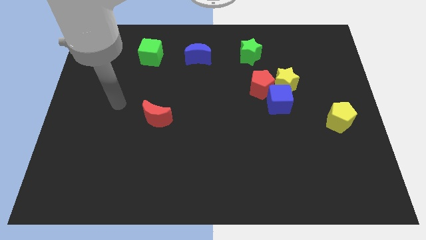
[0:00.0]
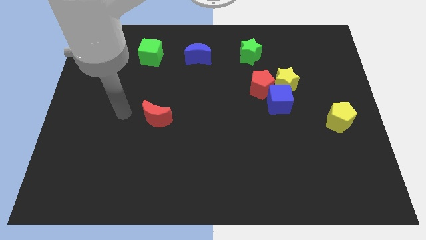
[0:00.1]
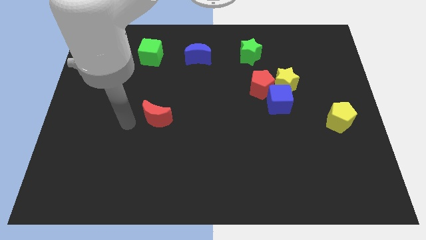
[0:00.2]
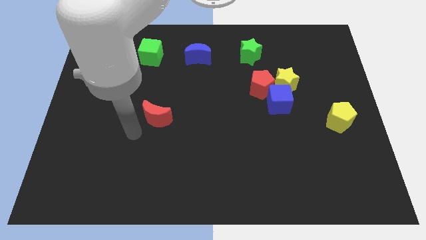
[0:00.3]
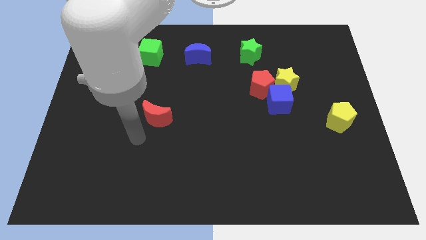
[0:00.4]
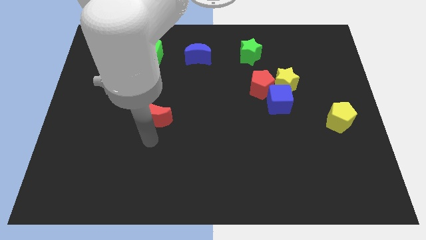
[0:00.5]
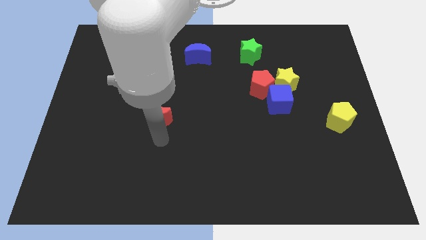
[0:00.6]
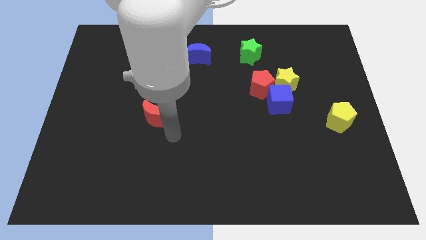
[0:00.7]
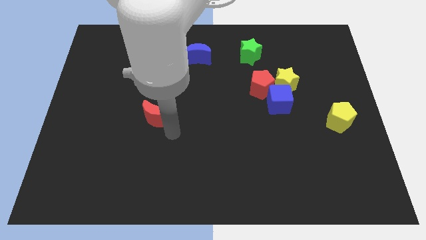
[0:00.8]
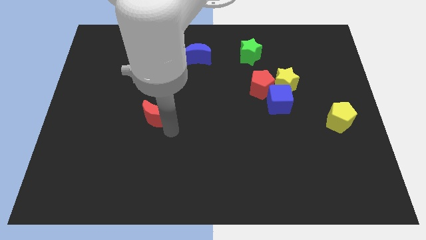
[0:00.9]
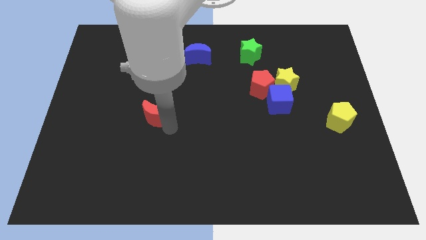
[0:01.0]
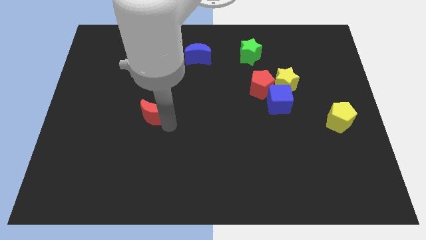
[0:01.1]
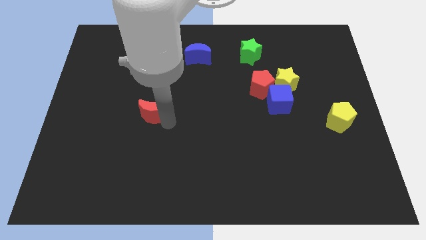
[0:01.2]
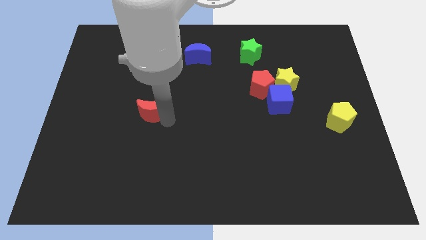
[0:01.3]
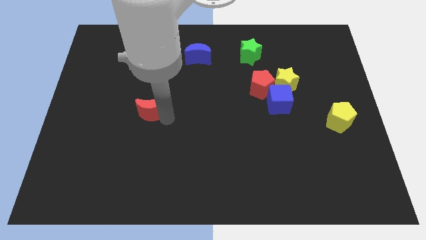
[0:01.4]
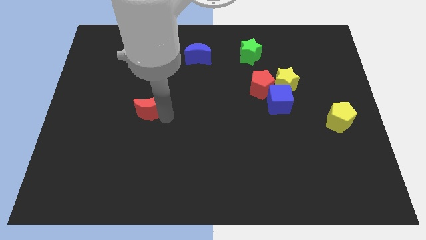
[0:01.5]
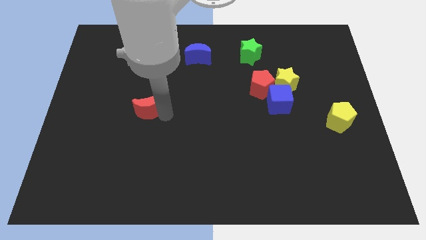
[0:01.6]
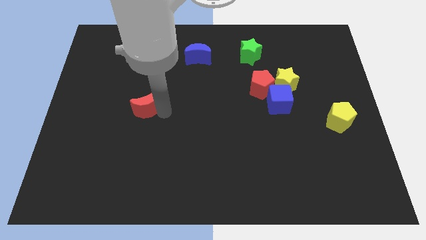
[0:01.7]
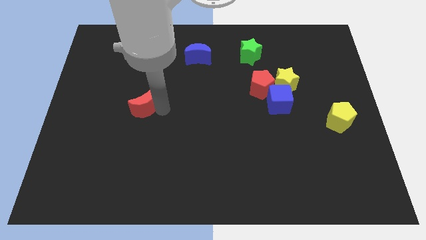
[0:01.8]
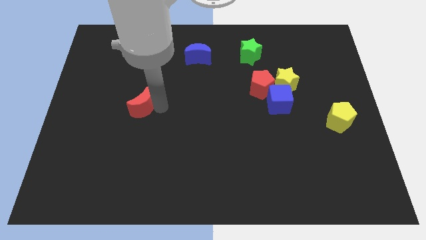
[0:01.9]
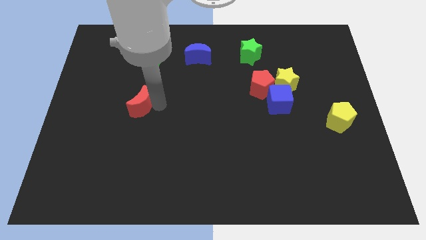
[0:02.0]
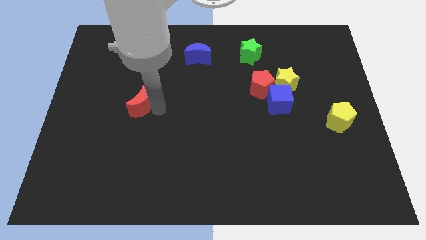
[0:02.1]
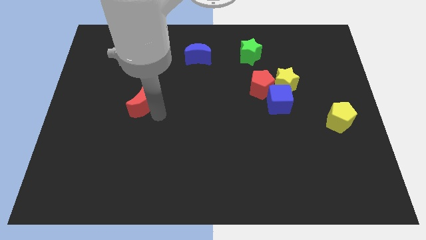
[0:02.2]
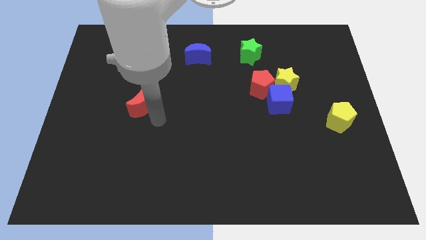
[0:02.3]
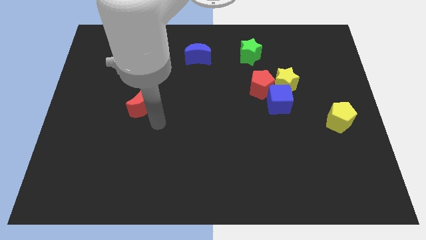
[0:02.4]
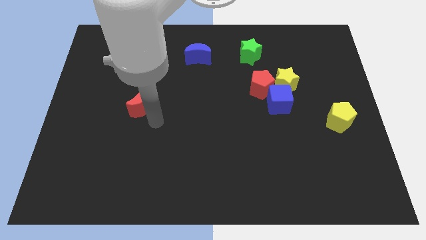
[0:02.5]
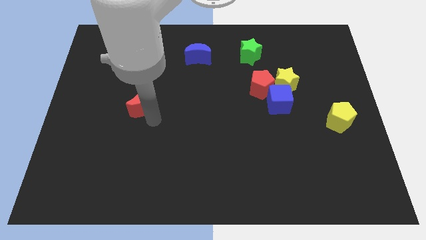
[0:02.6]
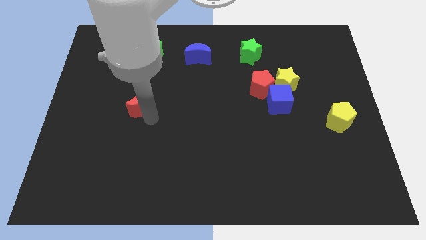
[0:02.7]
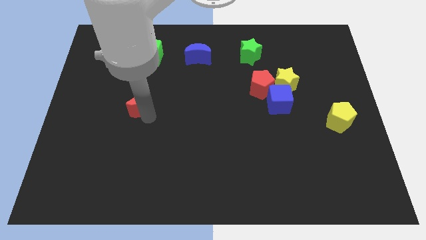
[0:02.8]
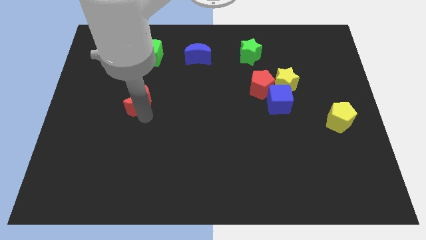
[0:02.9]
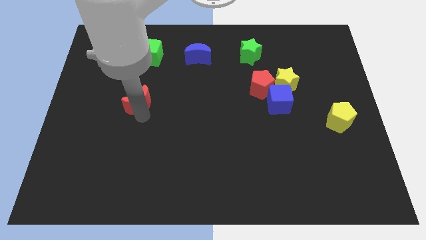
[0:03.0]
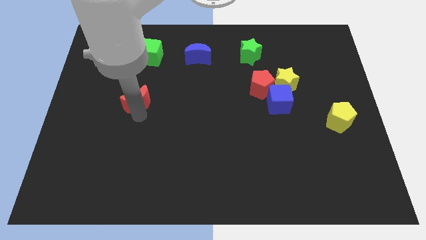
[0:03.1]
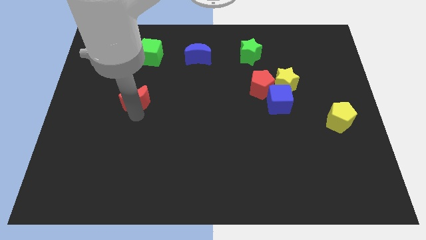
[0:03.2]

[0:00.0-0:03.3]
move the red moon a little up and to the left diagonally

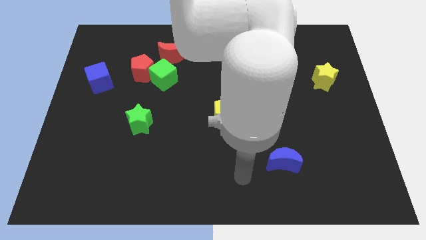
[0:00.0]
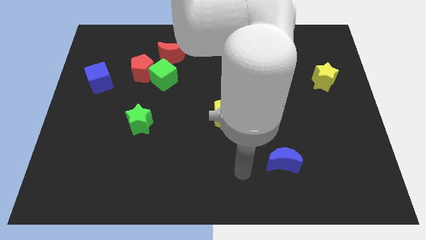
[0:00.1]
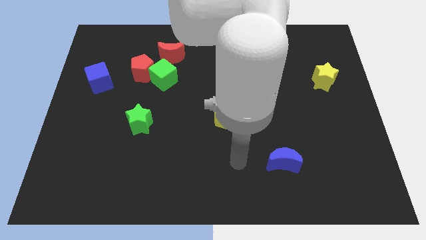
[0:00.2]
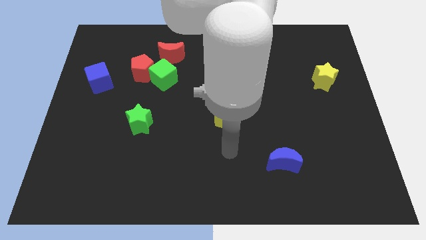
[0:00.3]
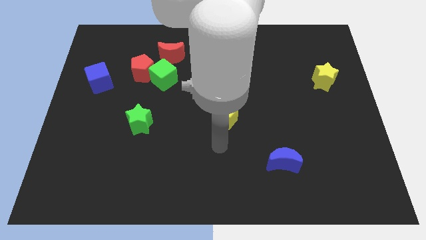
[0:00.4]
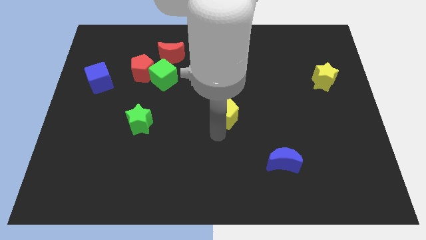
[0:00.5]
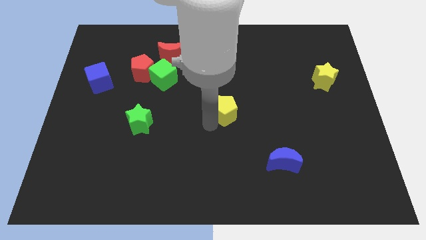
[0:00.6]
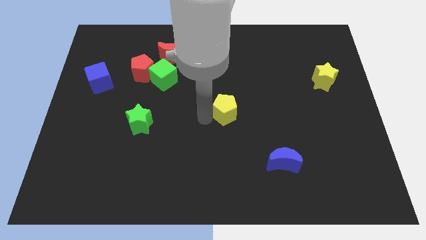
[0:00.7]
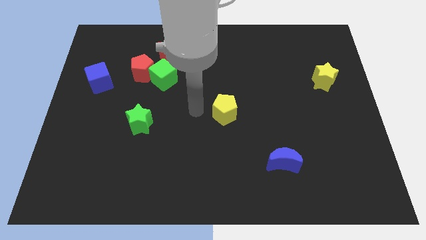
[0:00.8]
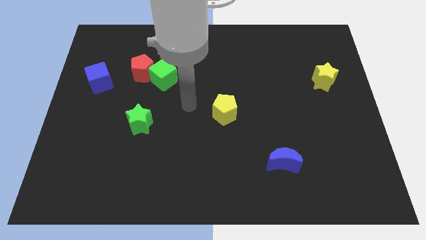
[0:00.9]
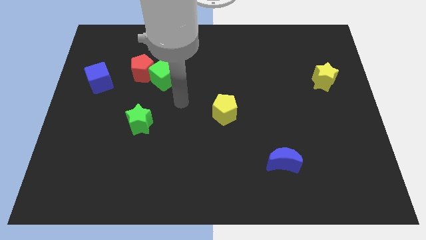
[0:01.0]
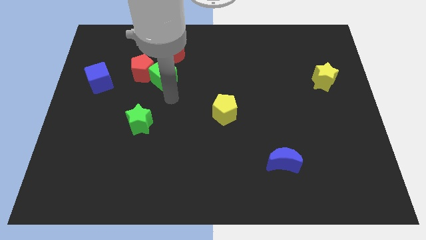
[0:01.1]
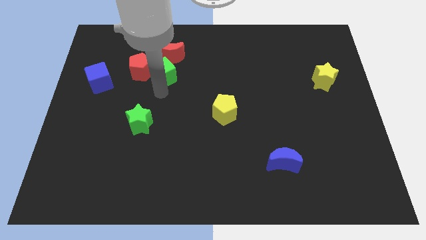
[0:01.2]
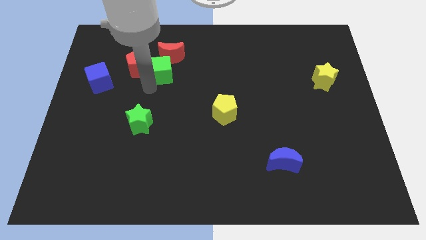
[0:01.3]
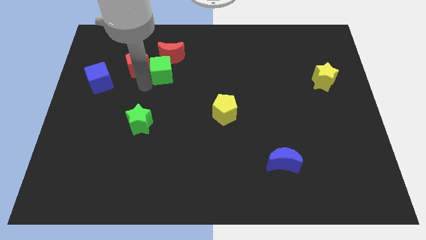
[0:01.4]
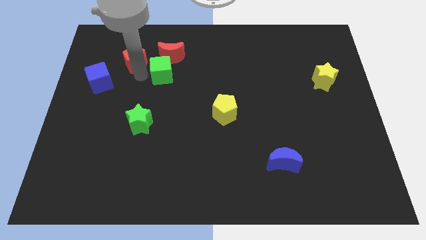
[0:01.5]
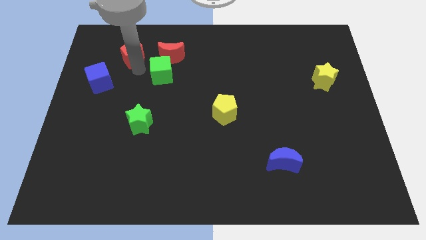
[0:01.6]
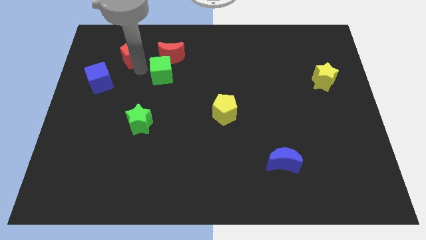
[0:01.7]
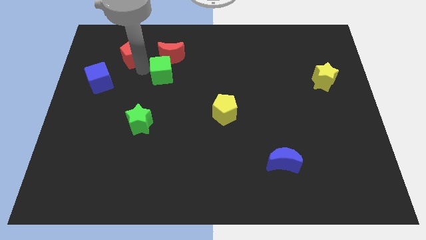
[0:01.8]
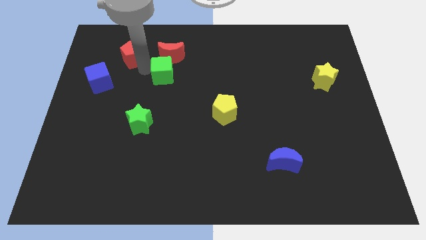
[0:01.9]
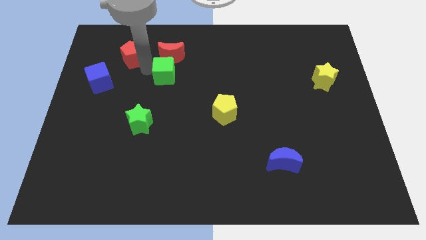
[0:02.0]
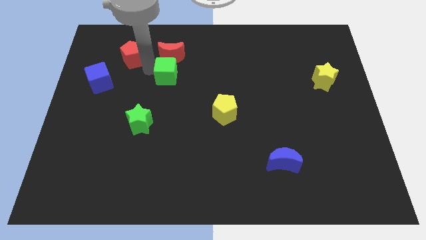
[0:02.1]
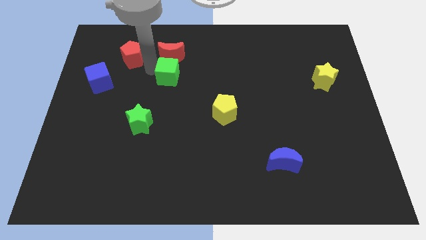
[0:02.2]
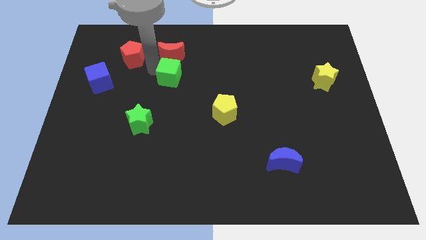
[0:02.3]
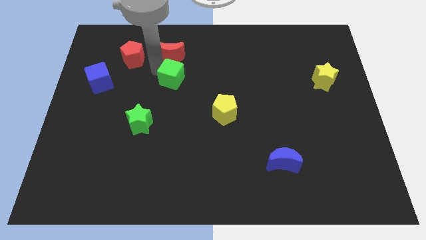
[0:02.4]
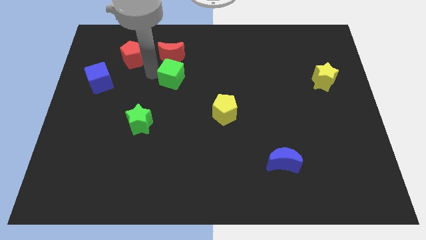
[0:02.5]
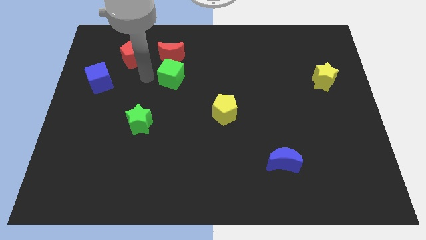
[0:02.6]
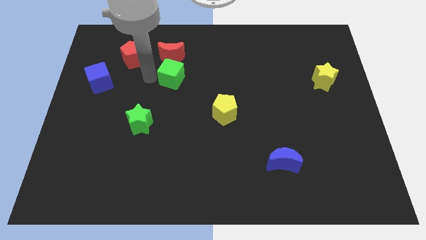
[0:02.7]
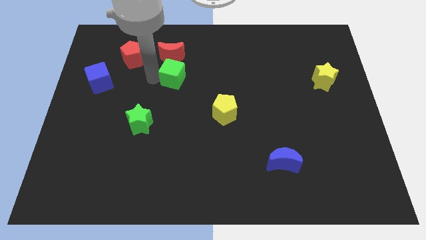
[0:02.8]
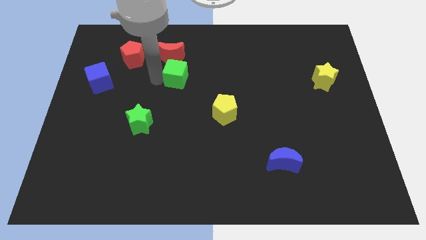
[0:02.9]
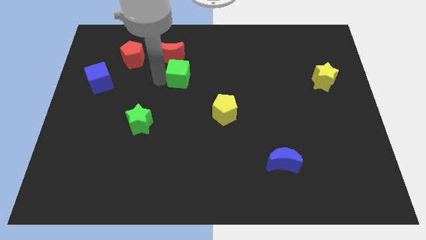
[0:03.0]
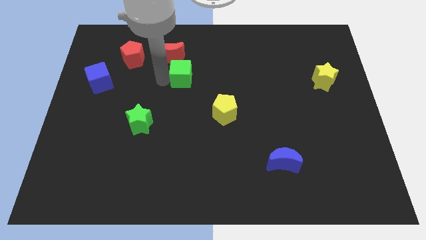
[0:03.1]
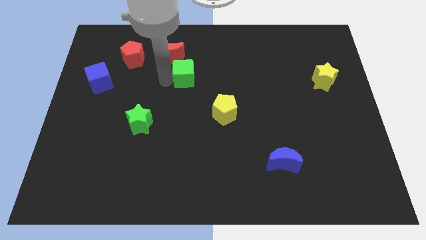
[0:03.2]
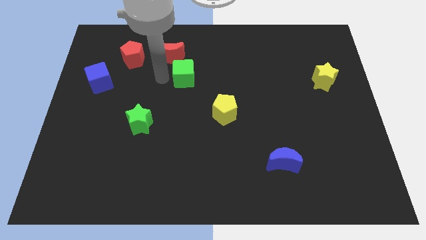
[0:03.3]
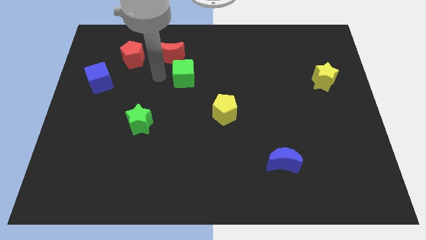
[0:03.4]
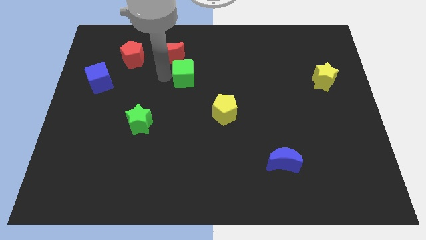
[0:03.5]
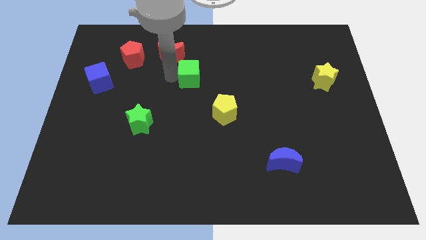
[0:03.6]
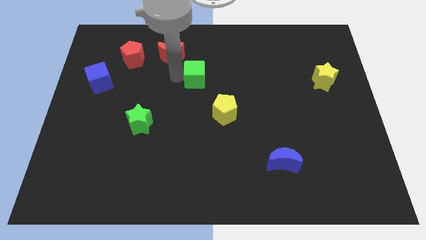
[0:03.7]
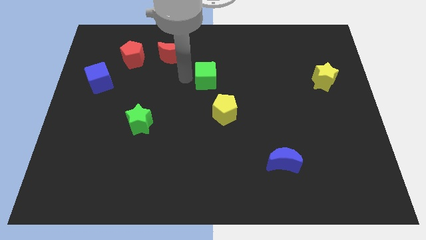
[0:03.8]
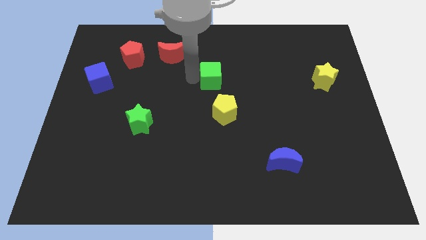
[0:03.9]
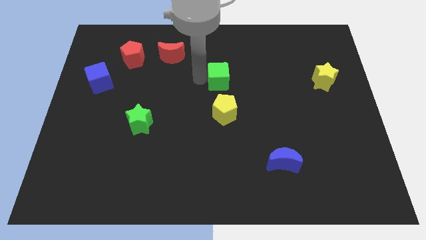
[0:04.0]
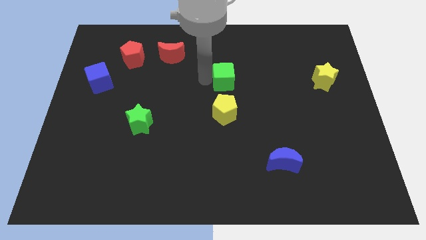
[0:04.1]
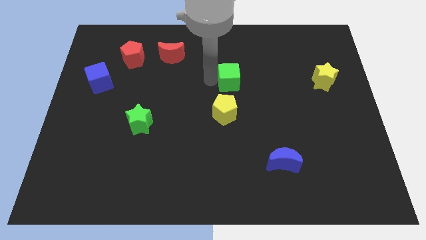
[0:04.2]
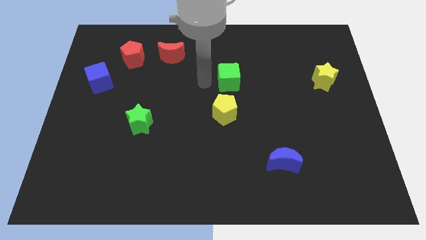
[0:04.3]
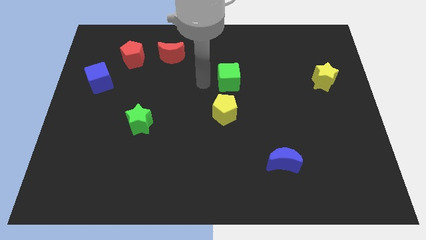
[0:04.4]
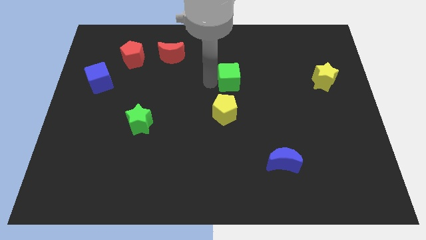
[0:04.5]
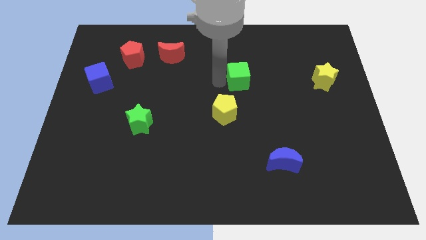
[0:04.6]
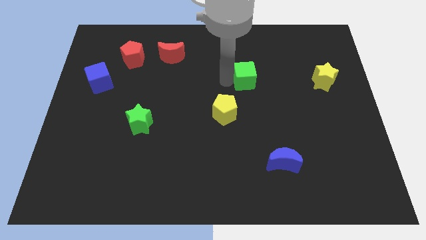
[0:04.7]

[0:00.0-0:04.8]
move the green cube right
